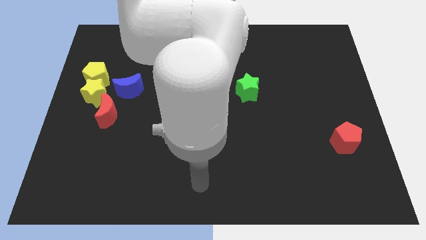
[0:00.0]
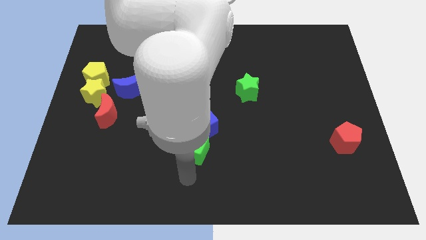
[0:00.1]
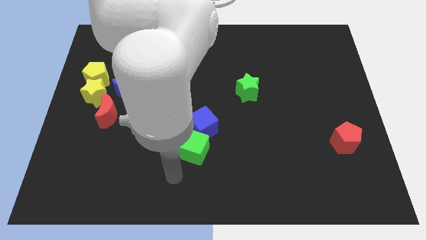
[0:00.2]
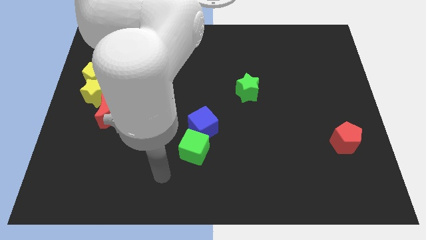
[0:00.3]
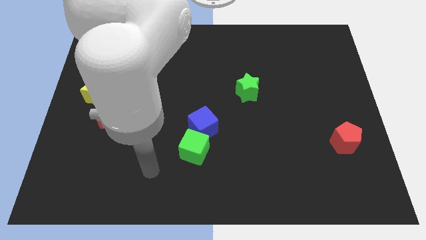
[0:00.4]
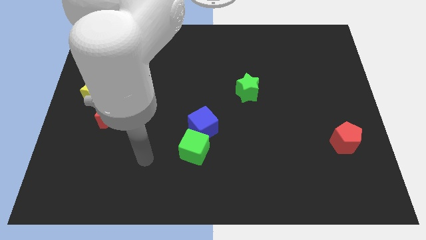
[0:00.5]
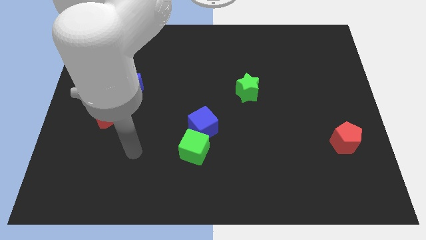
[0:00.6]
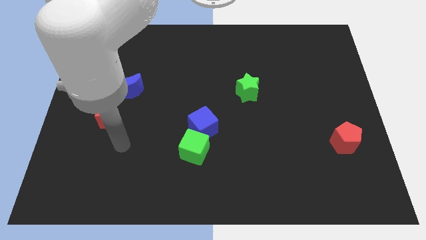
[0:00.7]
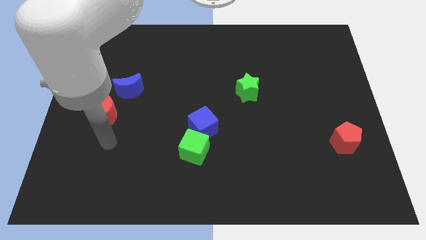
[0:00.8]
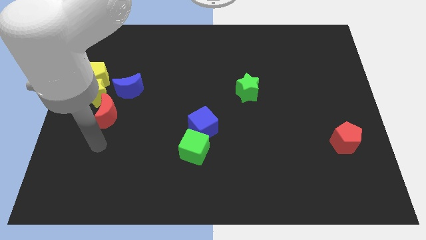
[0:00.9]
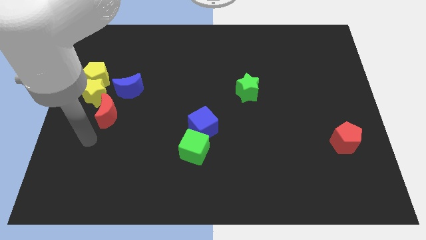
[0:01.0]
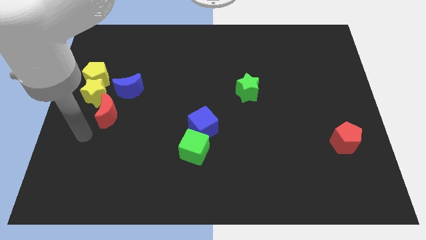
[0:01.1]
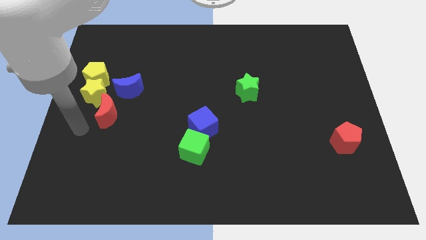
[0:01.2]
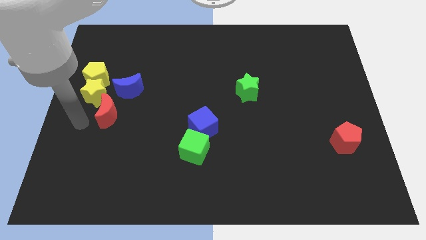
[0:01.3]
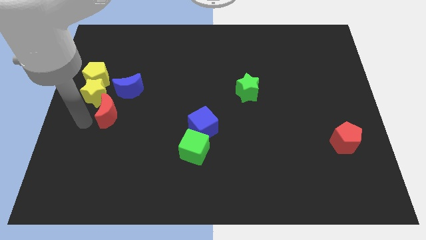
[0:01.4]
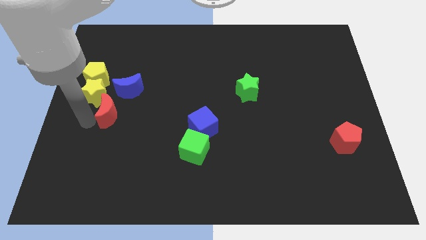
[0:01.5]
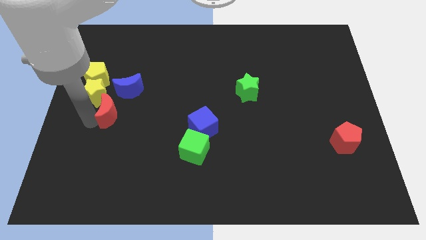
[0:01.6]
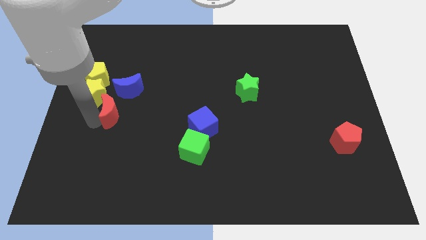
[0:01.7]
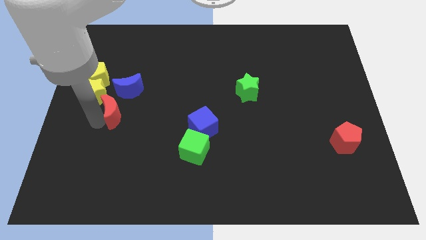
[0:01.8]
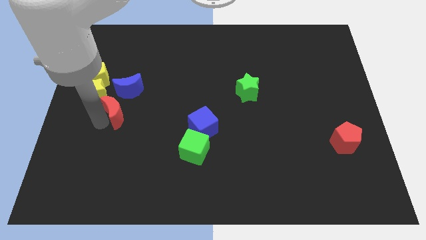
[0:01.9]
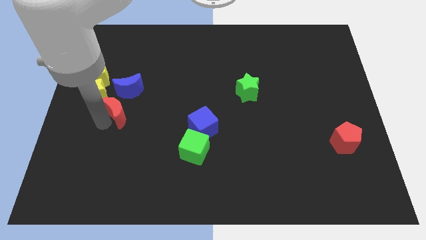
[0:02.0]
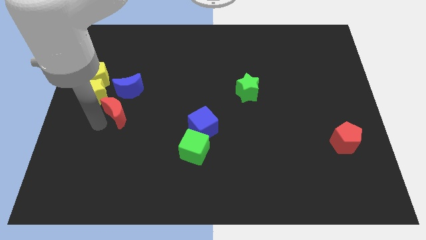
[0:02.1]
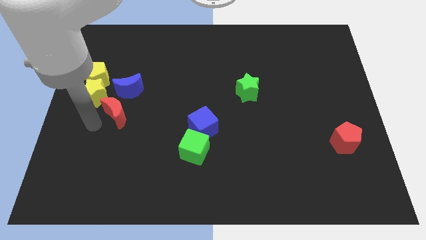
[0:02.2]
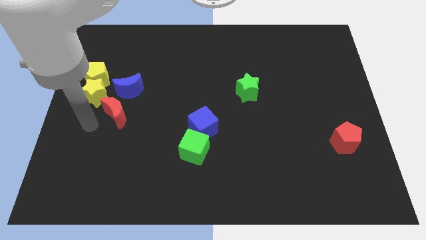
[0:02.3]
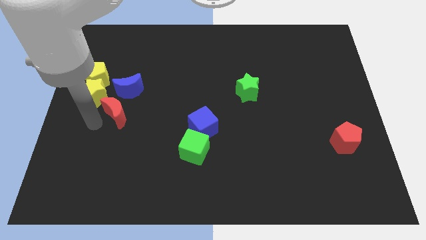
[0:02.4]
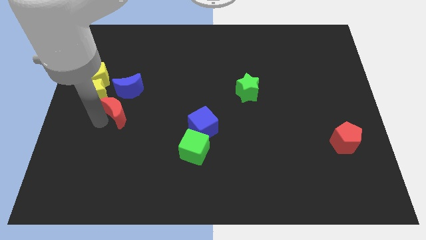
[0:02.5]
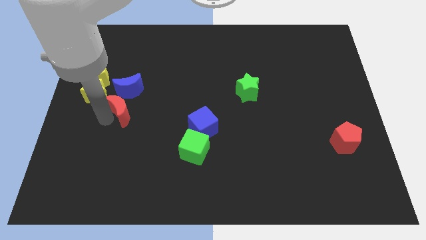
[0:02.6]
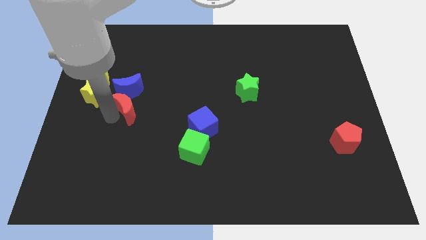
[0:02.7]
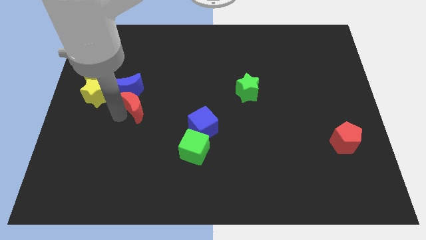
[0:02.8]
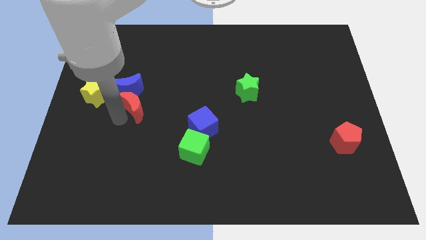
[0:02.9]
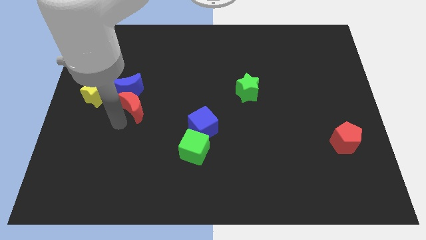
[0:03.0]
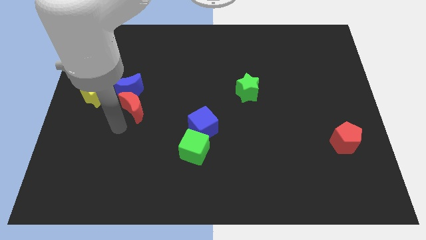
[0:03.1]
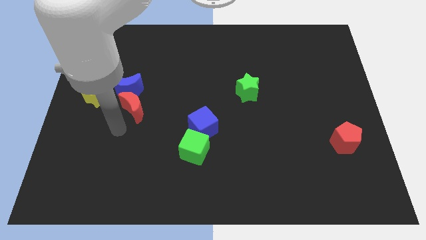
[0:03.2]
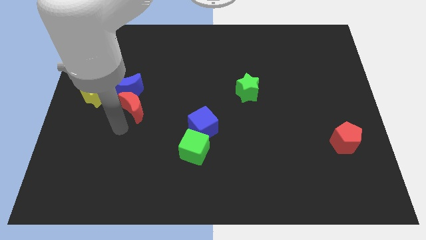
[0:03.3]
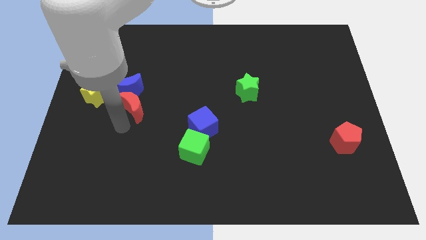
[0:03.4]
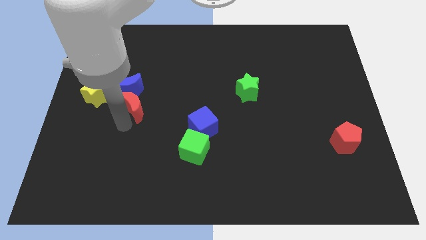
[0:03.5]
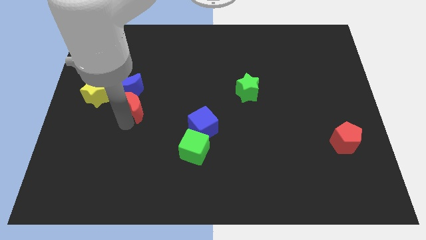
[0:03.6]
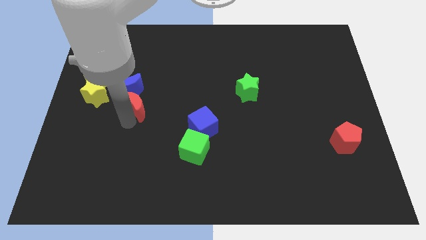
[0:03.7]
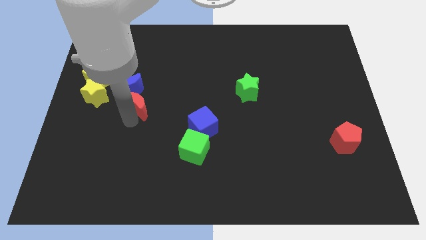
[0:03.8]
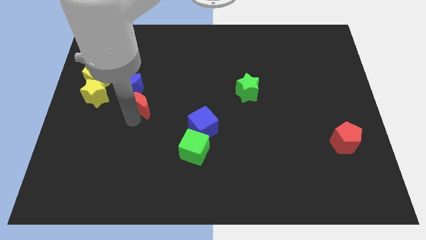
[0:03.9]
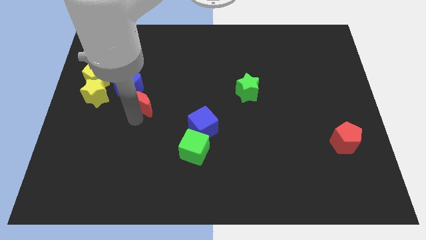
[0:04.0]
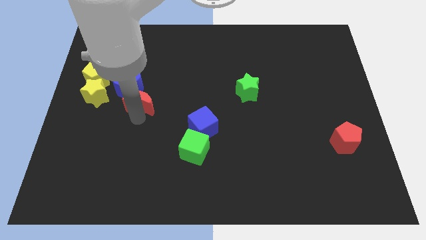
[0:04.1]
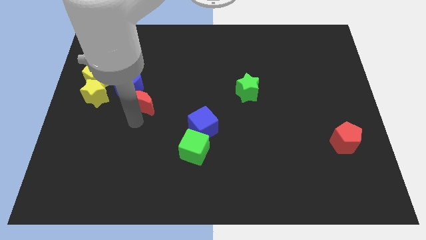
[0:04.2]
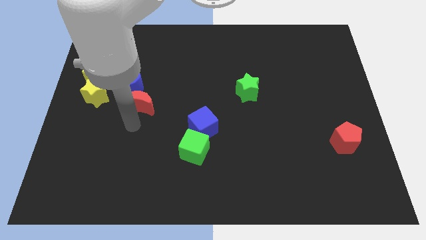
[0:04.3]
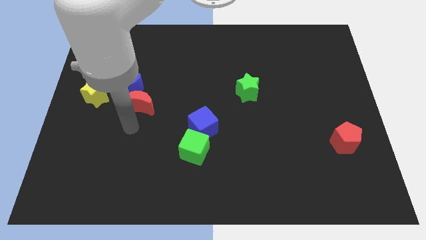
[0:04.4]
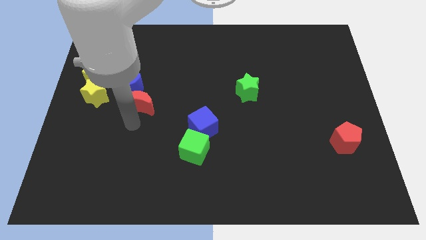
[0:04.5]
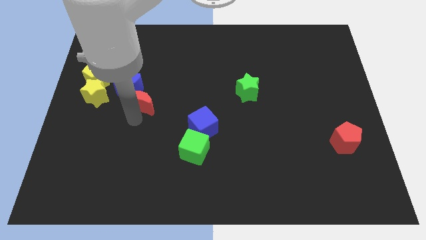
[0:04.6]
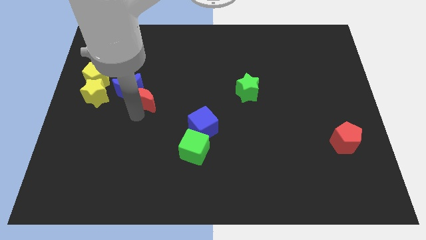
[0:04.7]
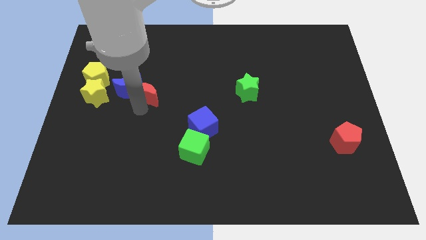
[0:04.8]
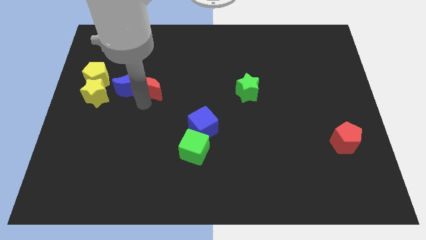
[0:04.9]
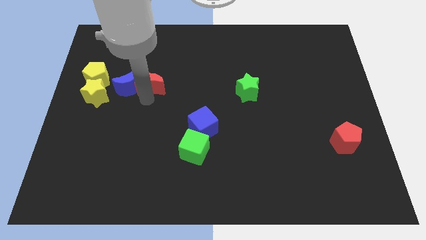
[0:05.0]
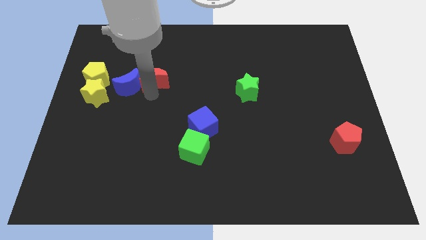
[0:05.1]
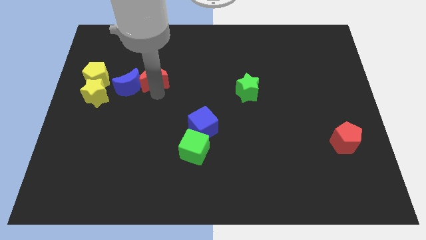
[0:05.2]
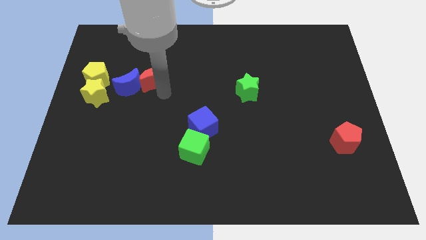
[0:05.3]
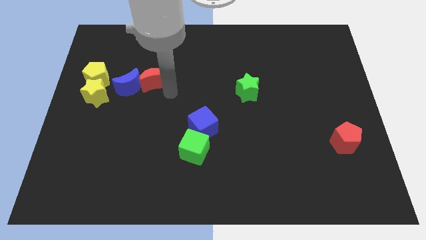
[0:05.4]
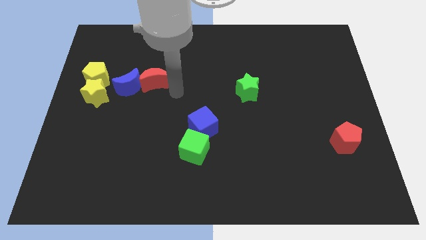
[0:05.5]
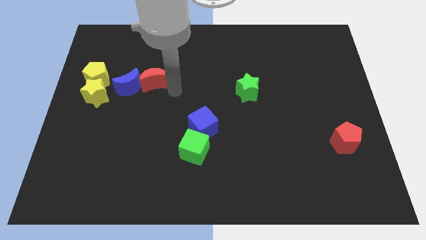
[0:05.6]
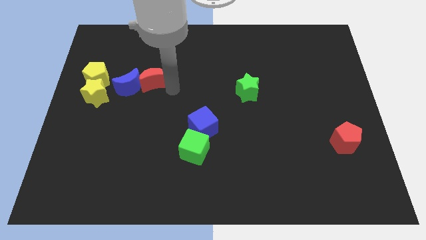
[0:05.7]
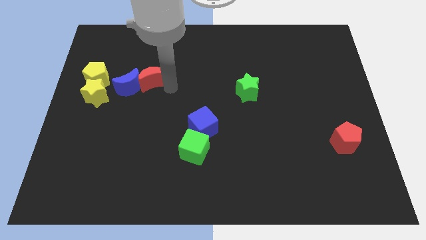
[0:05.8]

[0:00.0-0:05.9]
push the red moon up slightly

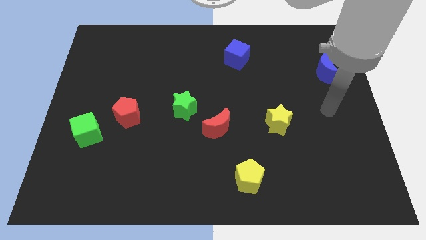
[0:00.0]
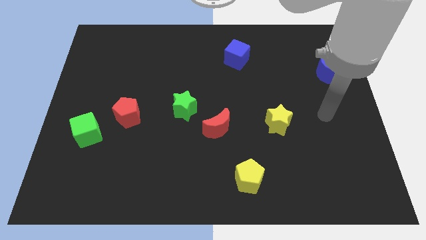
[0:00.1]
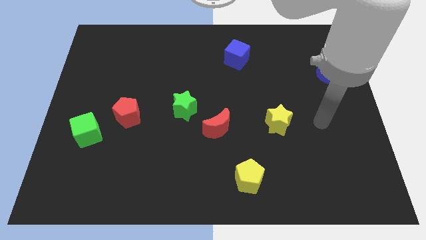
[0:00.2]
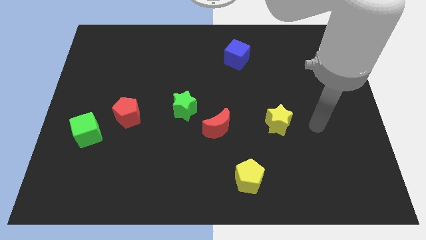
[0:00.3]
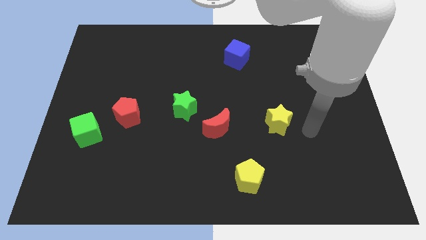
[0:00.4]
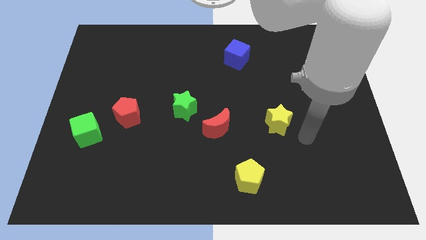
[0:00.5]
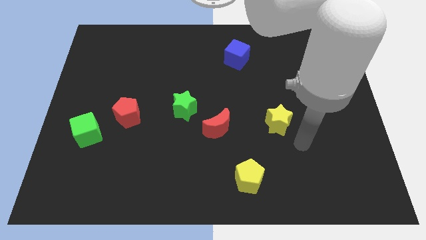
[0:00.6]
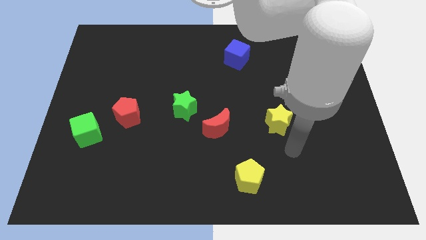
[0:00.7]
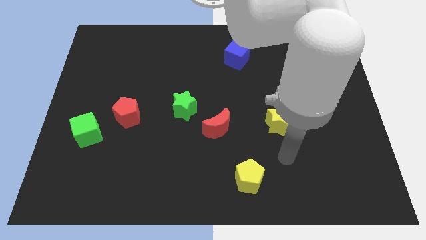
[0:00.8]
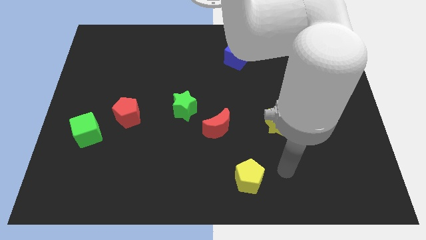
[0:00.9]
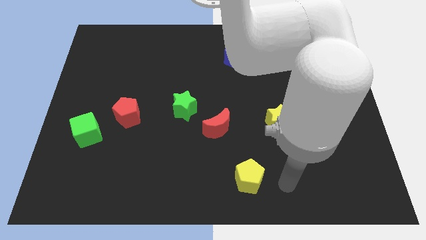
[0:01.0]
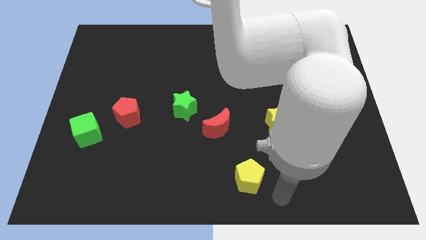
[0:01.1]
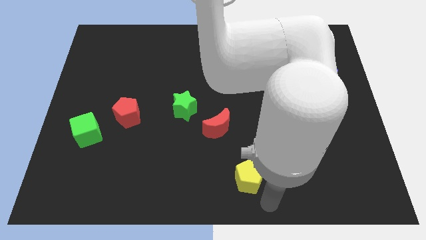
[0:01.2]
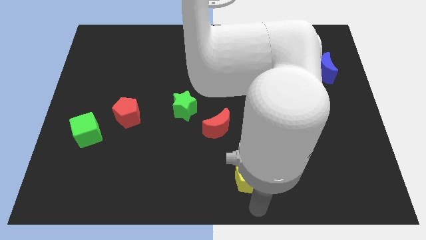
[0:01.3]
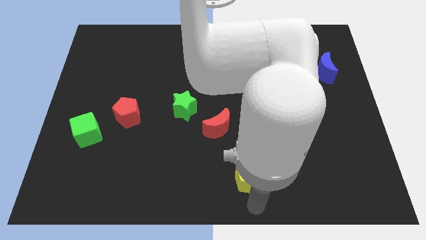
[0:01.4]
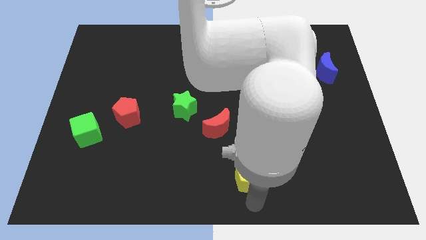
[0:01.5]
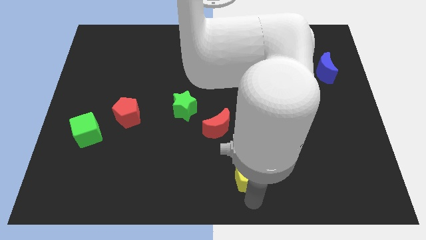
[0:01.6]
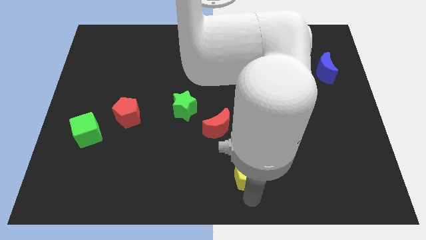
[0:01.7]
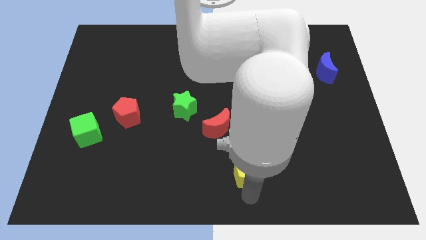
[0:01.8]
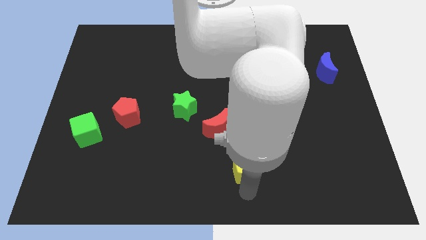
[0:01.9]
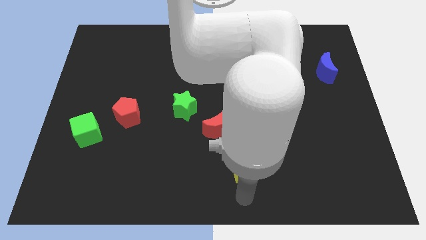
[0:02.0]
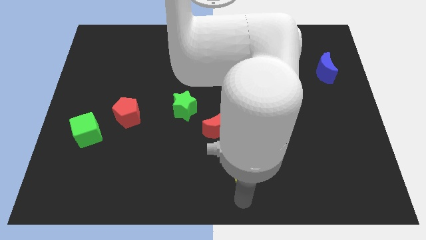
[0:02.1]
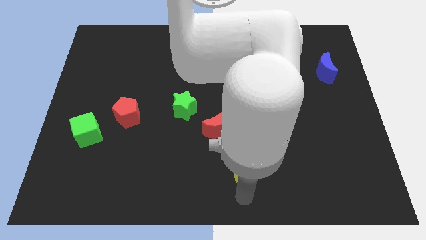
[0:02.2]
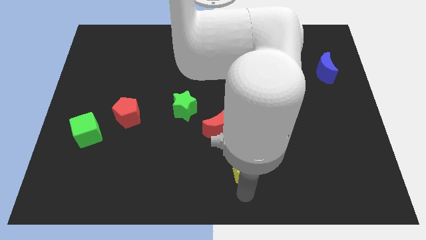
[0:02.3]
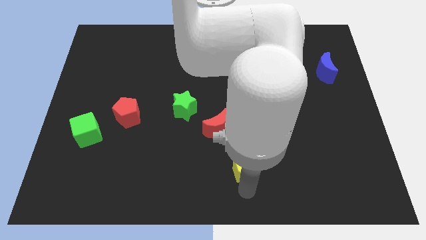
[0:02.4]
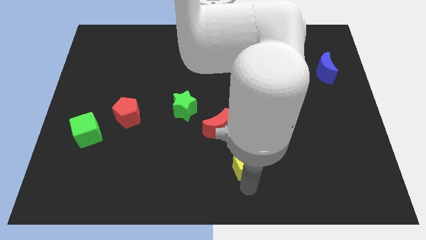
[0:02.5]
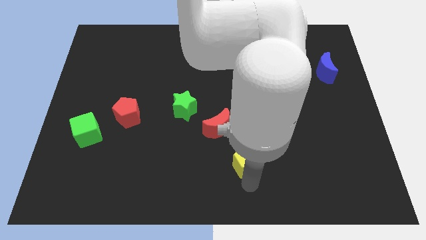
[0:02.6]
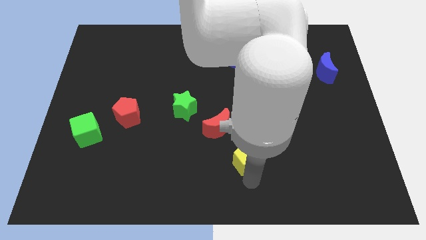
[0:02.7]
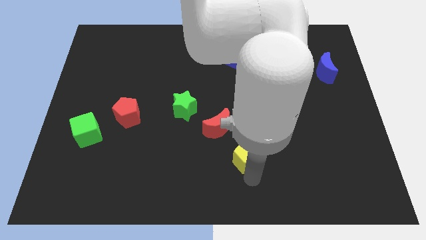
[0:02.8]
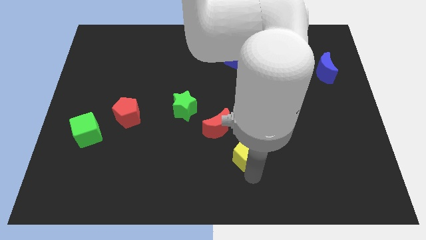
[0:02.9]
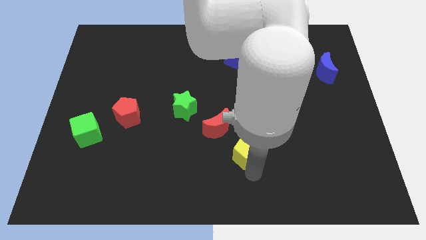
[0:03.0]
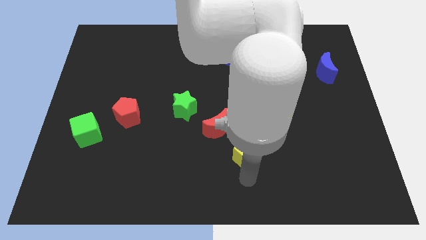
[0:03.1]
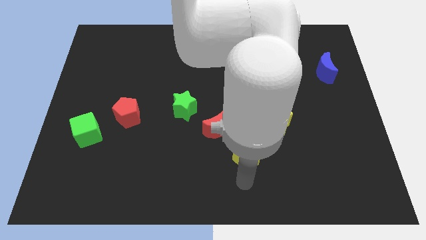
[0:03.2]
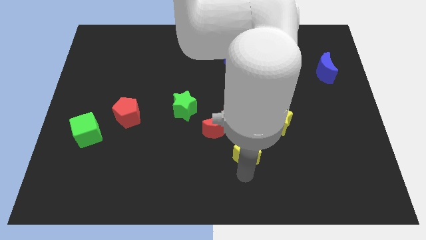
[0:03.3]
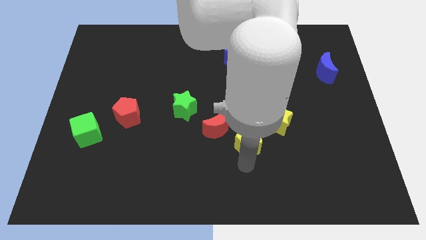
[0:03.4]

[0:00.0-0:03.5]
slide the yellow pentagon a little up
